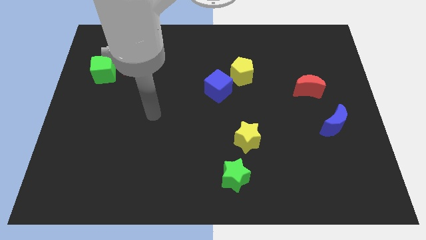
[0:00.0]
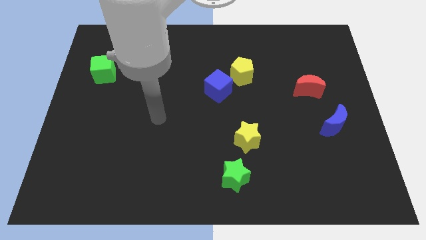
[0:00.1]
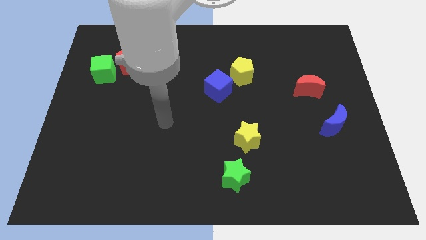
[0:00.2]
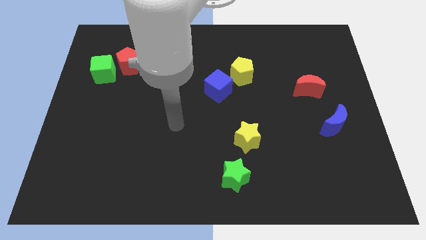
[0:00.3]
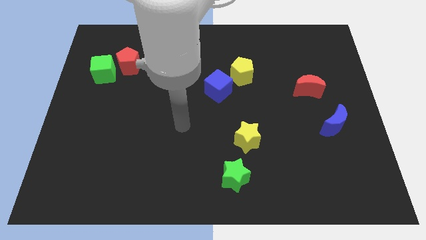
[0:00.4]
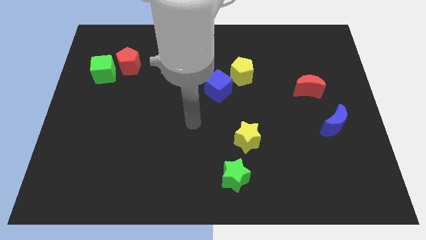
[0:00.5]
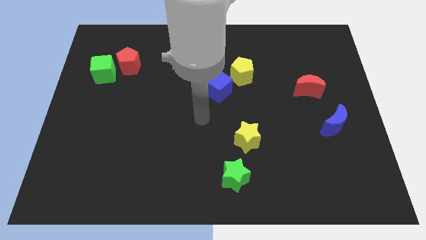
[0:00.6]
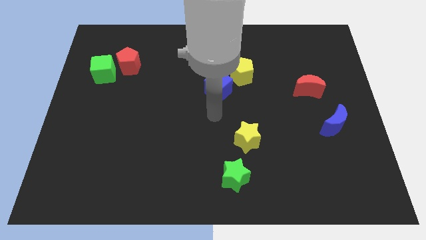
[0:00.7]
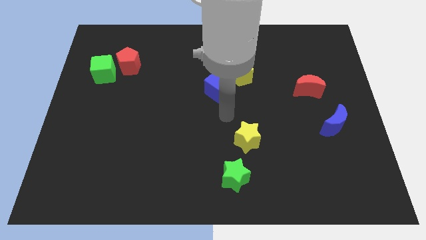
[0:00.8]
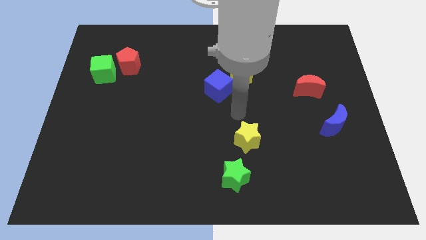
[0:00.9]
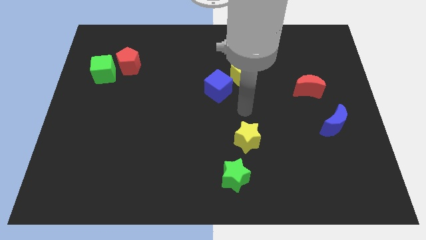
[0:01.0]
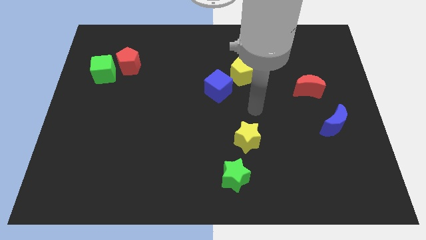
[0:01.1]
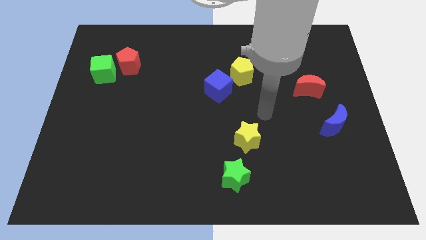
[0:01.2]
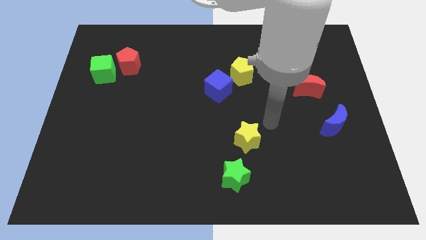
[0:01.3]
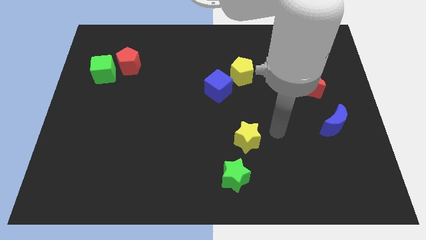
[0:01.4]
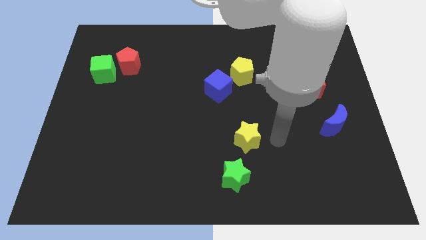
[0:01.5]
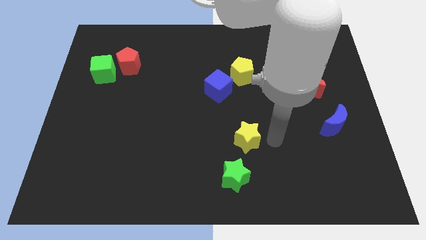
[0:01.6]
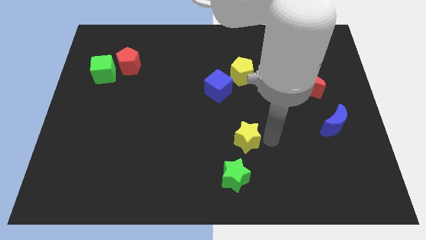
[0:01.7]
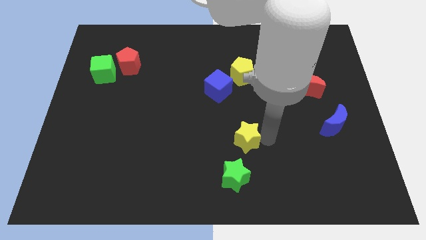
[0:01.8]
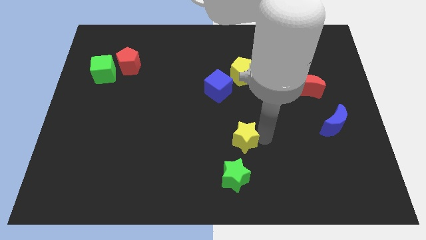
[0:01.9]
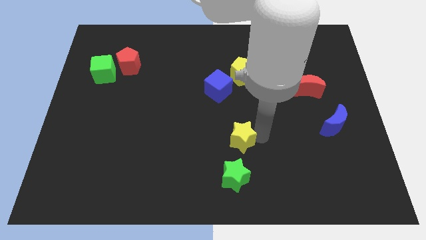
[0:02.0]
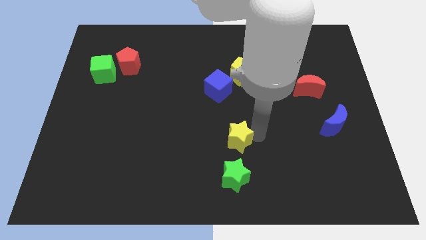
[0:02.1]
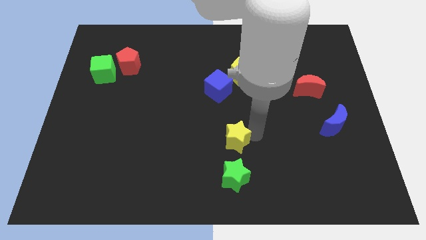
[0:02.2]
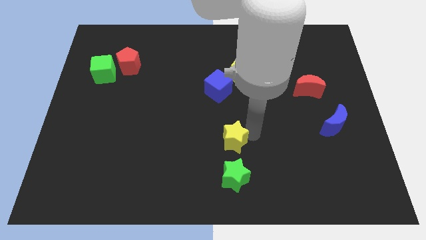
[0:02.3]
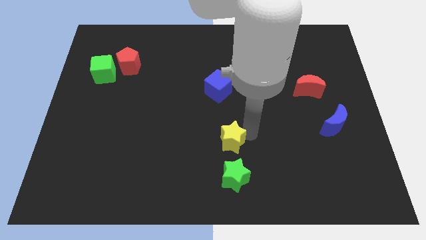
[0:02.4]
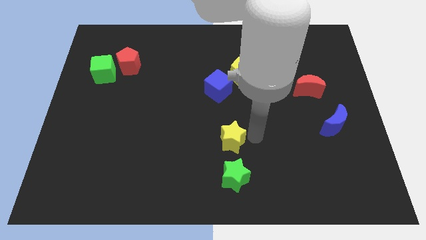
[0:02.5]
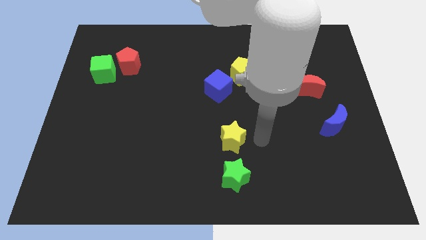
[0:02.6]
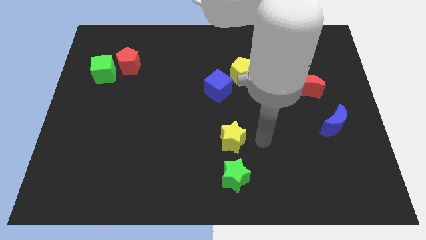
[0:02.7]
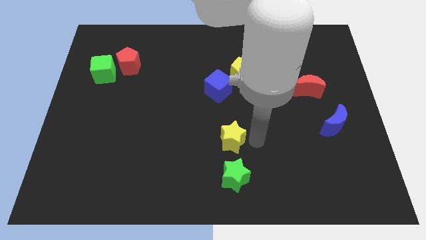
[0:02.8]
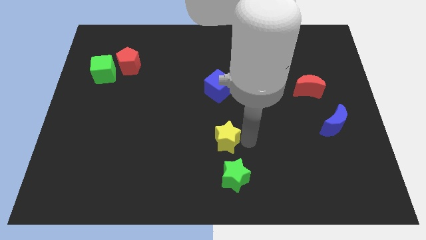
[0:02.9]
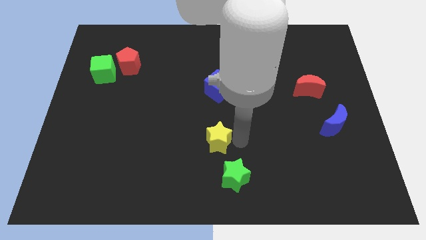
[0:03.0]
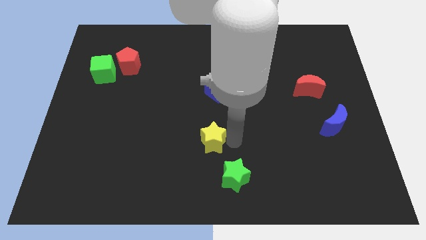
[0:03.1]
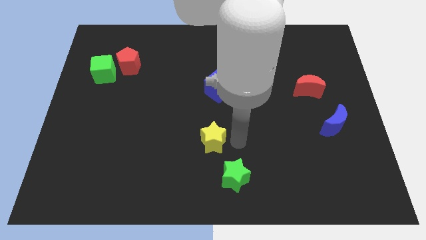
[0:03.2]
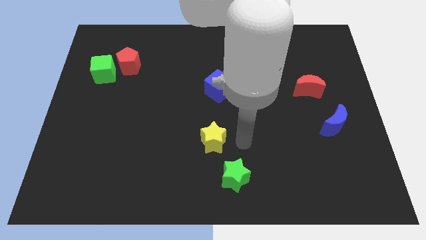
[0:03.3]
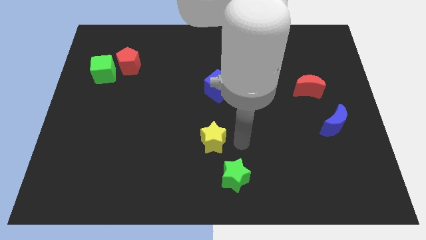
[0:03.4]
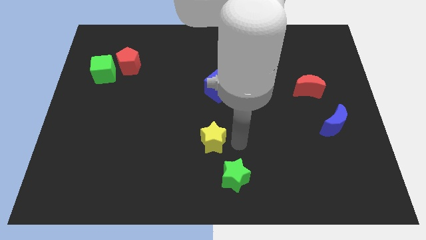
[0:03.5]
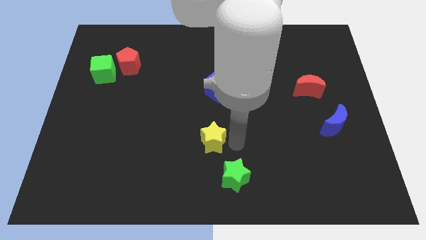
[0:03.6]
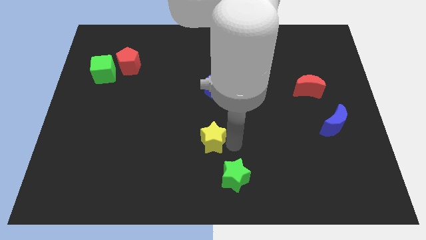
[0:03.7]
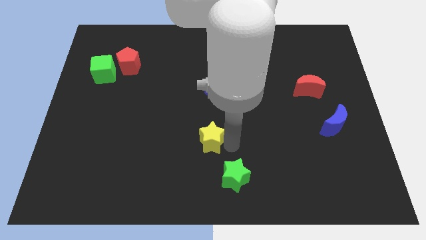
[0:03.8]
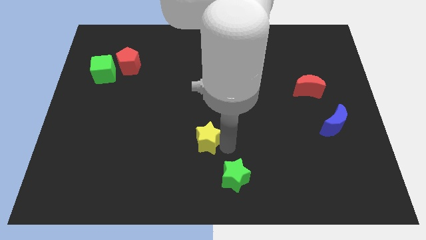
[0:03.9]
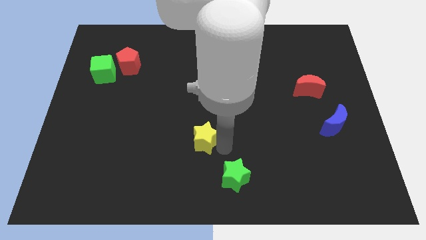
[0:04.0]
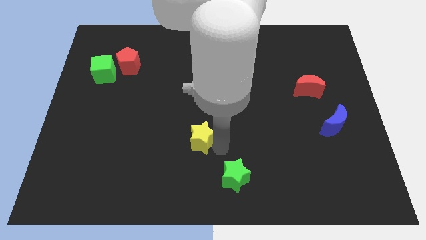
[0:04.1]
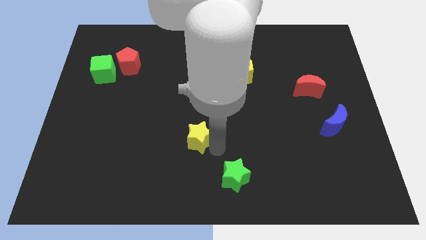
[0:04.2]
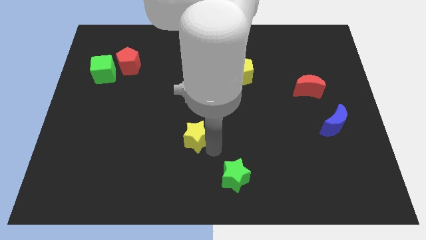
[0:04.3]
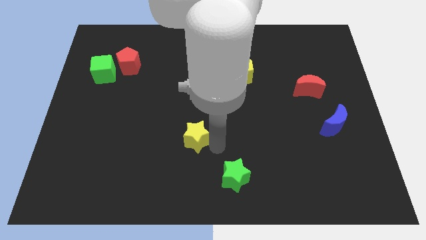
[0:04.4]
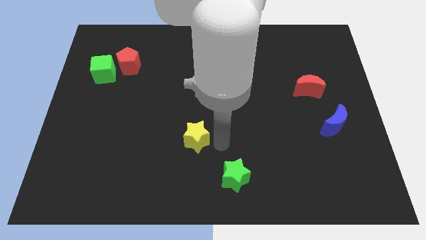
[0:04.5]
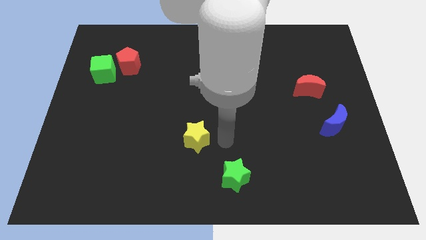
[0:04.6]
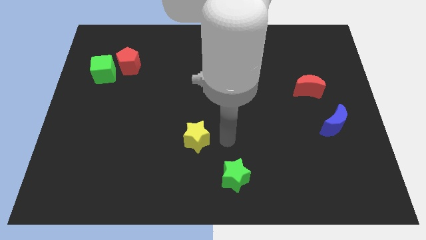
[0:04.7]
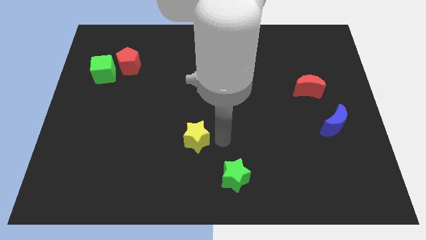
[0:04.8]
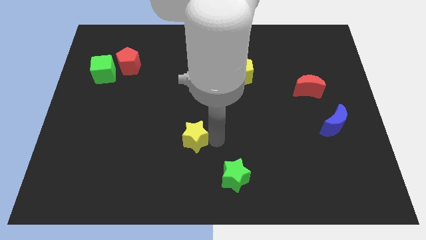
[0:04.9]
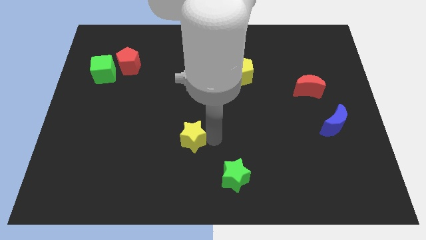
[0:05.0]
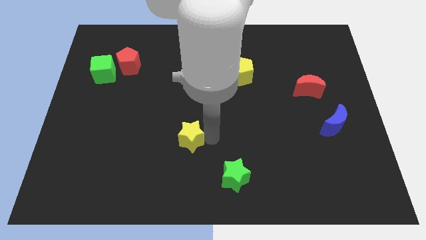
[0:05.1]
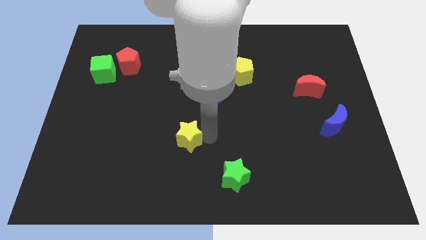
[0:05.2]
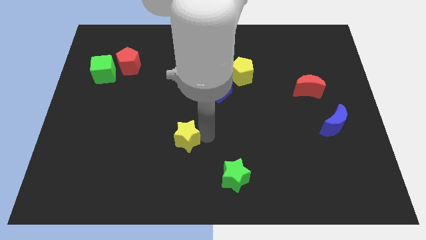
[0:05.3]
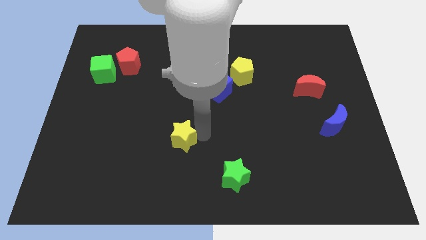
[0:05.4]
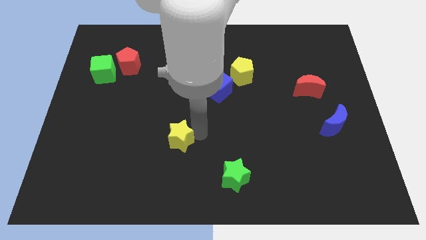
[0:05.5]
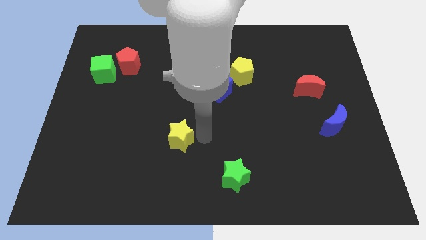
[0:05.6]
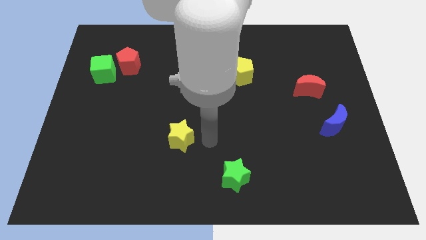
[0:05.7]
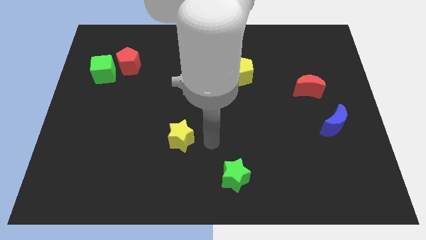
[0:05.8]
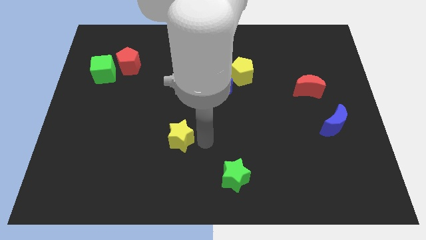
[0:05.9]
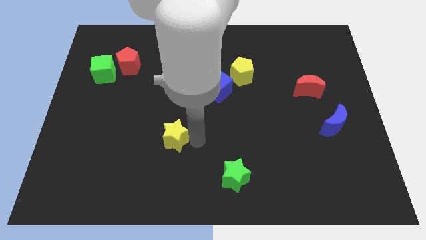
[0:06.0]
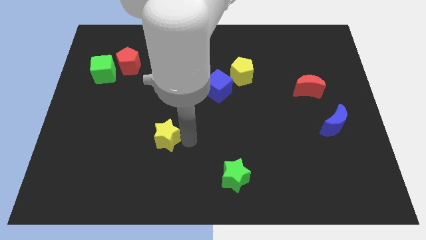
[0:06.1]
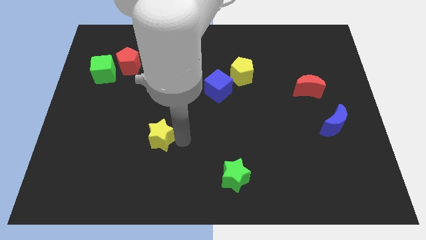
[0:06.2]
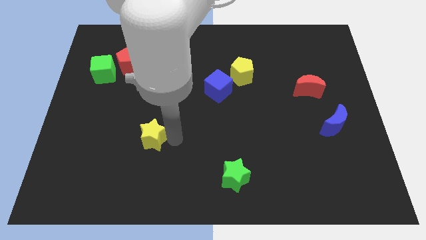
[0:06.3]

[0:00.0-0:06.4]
push the yellow star to the left

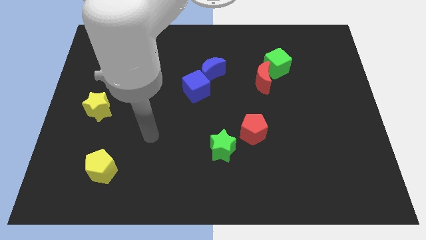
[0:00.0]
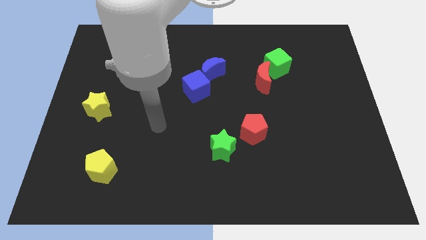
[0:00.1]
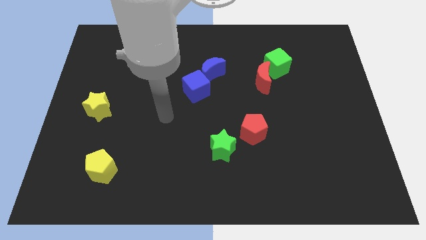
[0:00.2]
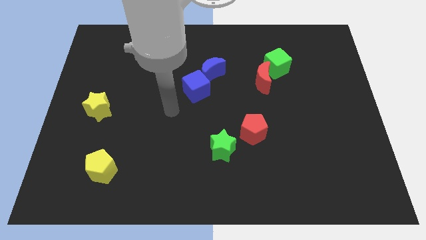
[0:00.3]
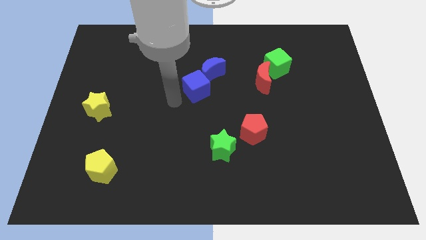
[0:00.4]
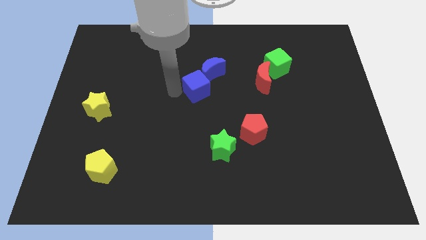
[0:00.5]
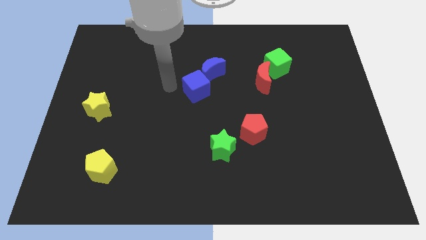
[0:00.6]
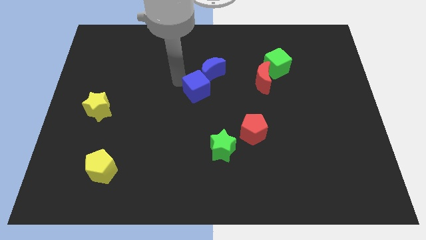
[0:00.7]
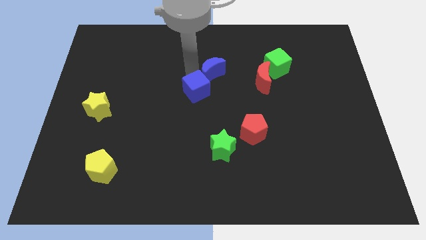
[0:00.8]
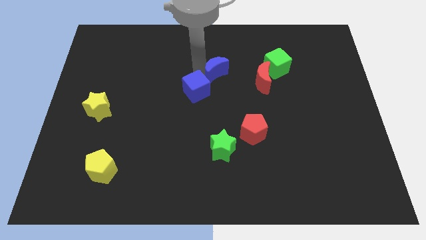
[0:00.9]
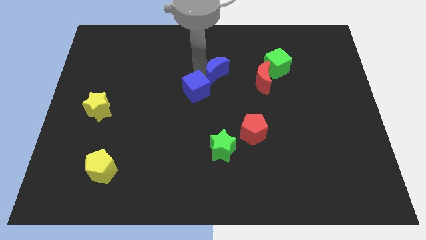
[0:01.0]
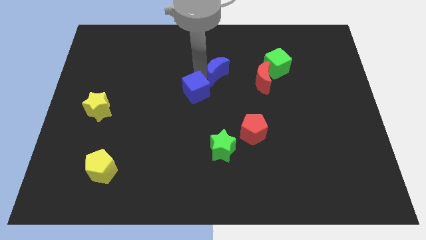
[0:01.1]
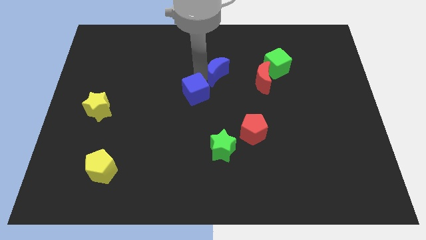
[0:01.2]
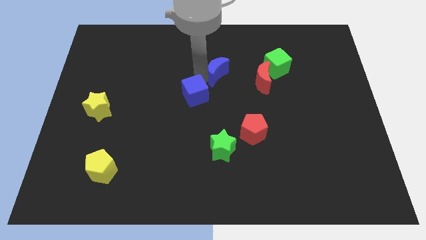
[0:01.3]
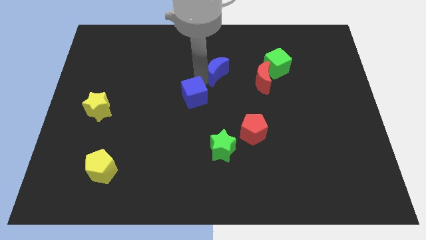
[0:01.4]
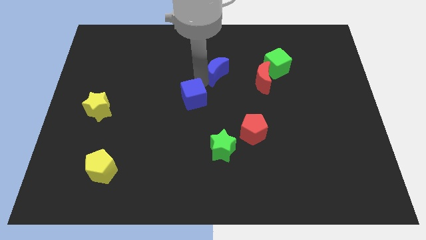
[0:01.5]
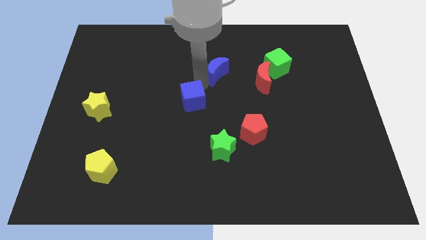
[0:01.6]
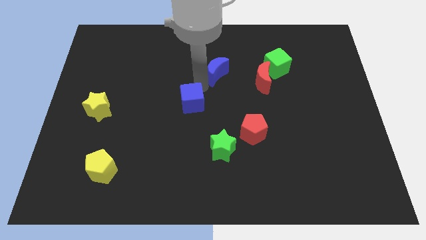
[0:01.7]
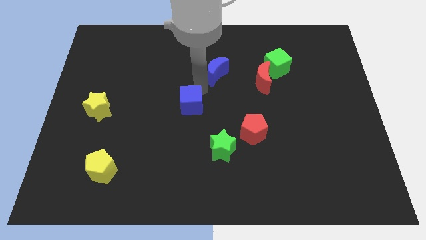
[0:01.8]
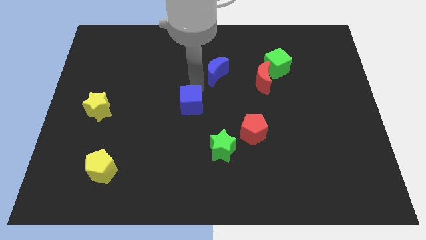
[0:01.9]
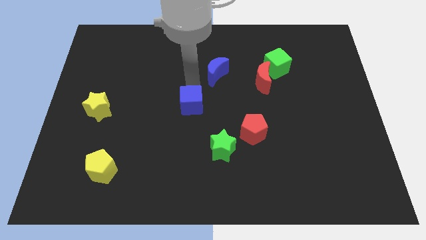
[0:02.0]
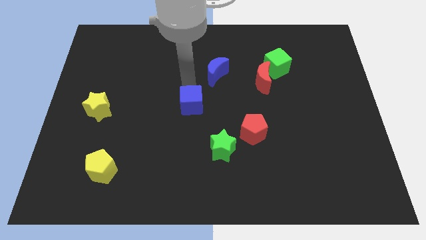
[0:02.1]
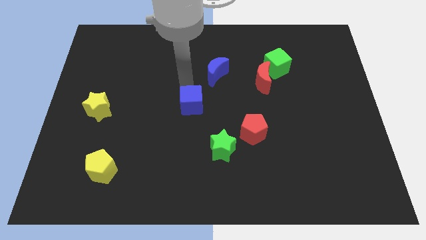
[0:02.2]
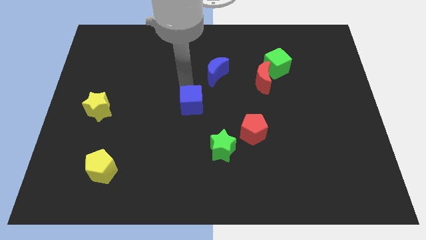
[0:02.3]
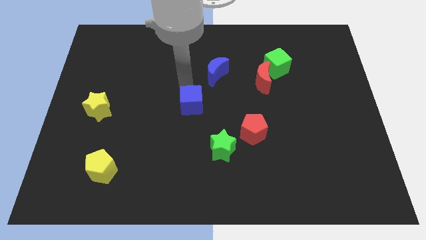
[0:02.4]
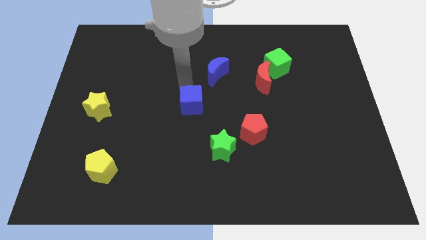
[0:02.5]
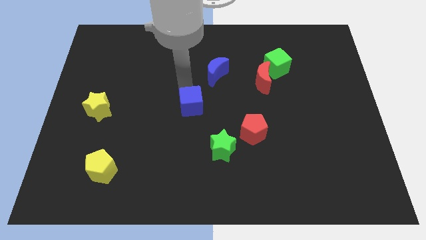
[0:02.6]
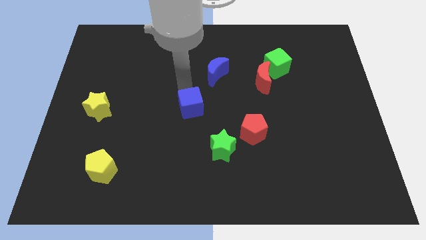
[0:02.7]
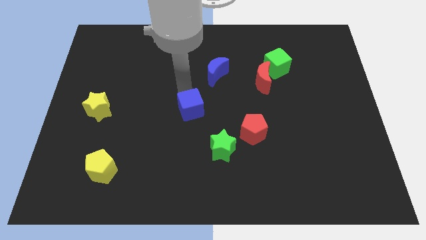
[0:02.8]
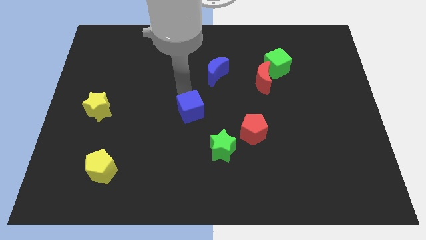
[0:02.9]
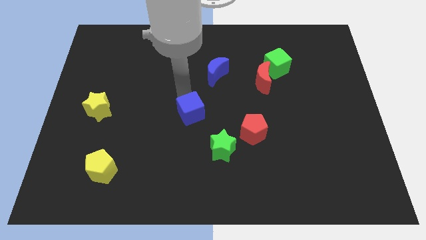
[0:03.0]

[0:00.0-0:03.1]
move the blue cube somewhat down
